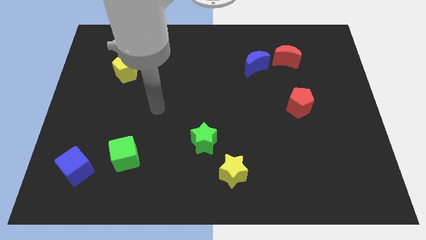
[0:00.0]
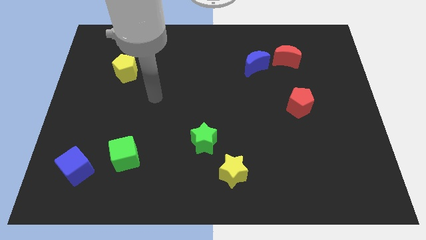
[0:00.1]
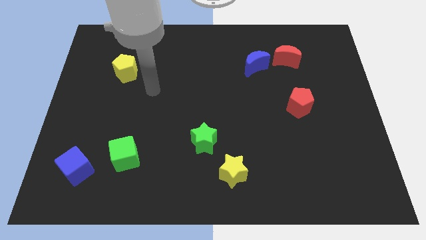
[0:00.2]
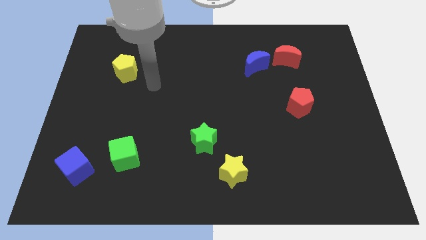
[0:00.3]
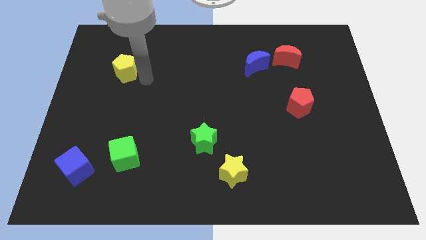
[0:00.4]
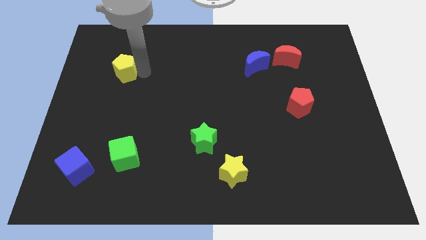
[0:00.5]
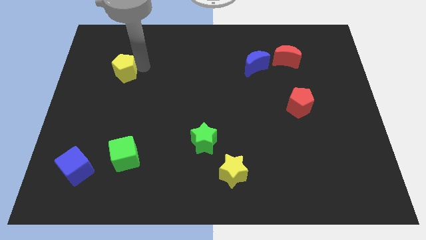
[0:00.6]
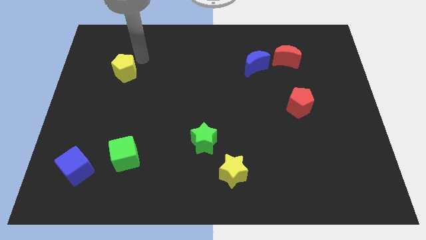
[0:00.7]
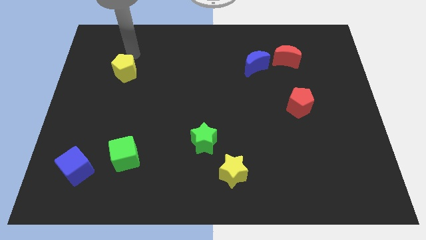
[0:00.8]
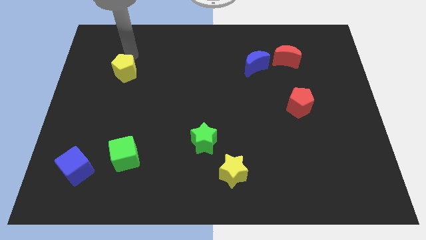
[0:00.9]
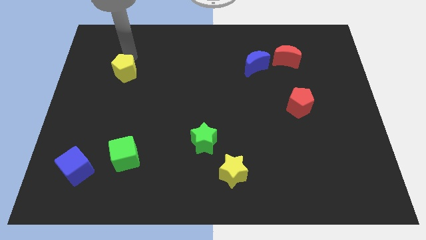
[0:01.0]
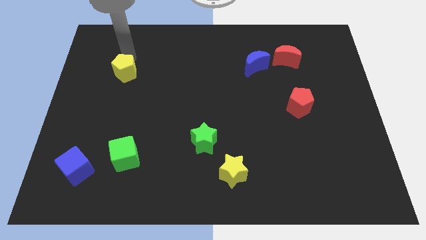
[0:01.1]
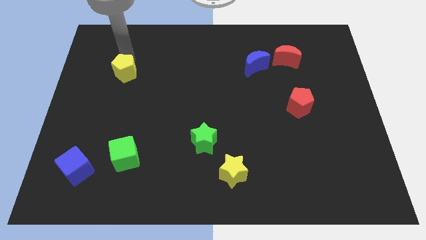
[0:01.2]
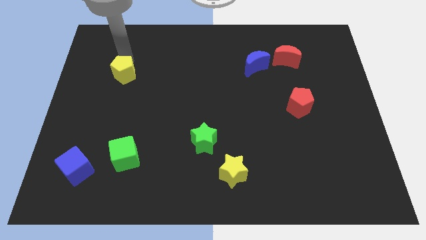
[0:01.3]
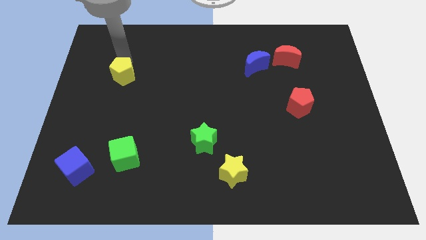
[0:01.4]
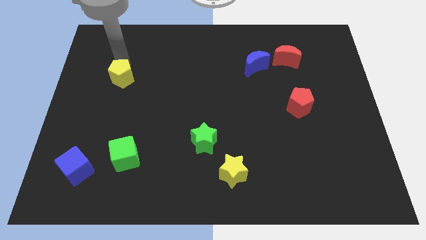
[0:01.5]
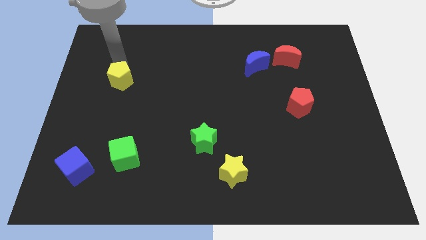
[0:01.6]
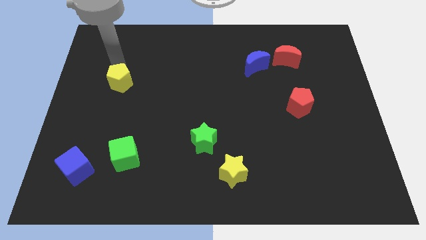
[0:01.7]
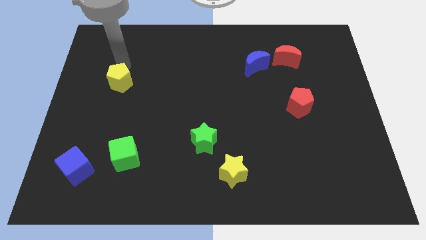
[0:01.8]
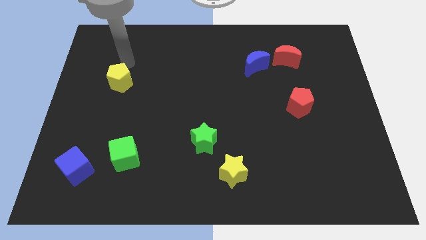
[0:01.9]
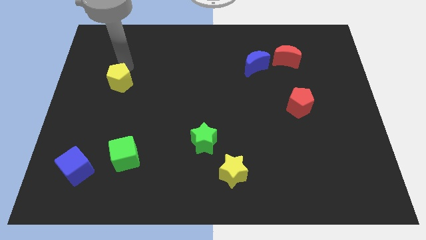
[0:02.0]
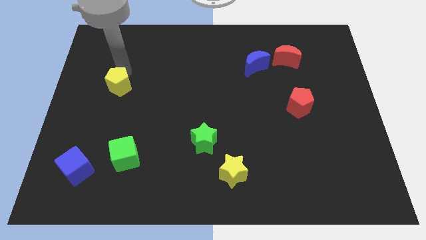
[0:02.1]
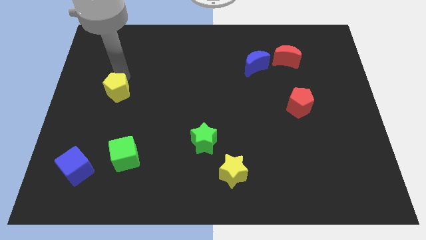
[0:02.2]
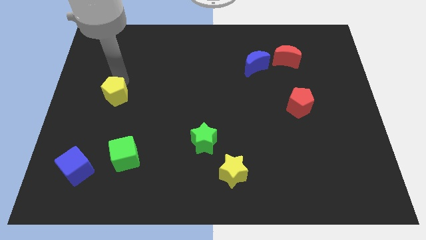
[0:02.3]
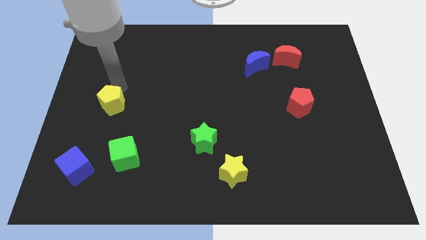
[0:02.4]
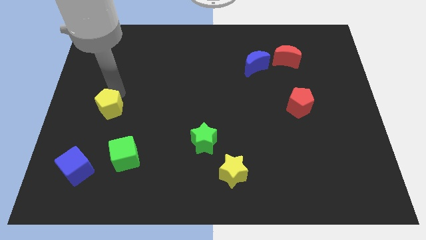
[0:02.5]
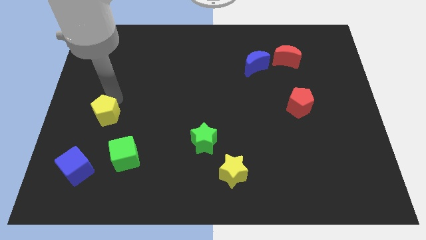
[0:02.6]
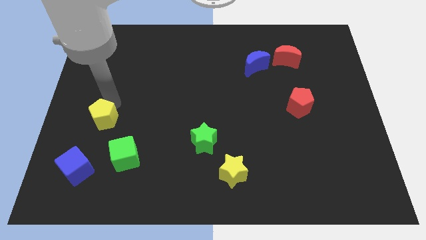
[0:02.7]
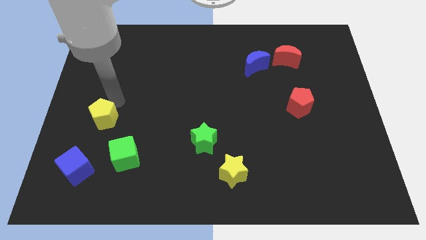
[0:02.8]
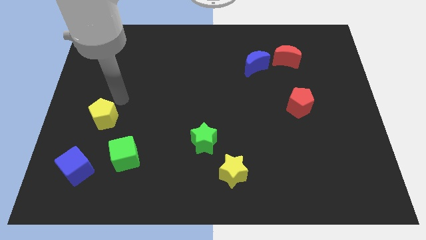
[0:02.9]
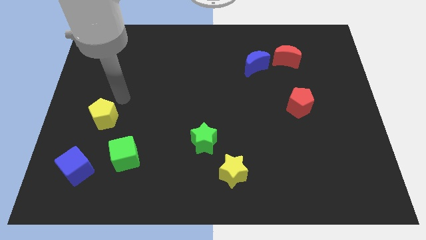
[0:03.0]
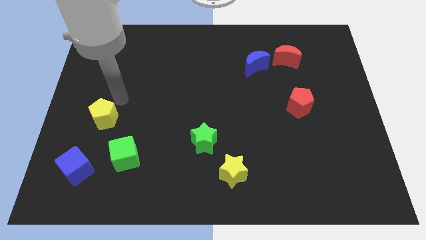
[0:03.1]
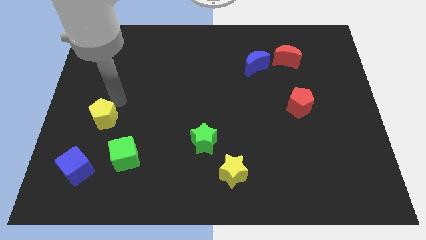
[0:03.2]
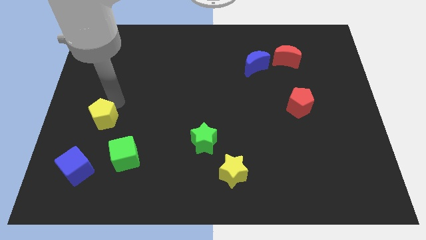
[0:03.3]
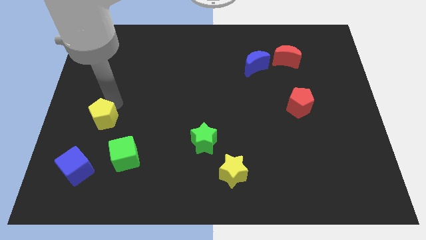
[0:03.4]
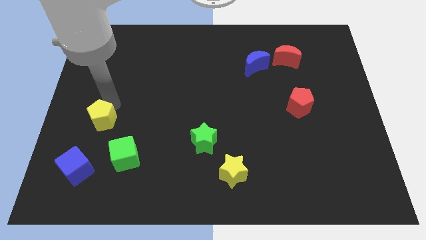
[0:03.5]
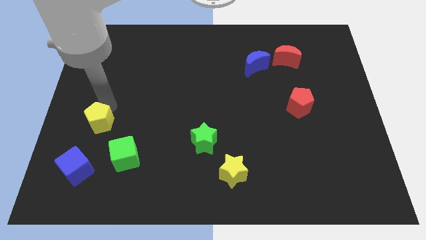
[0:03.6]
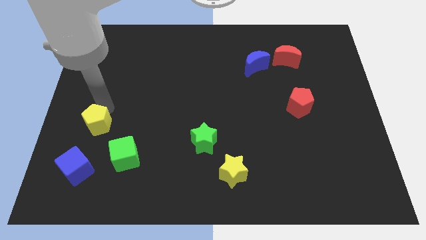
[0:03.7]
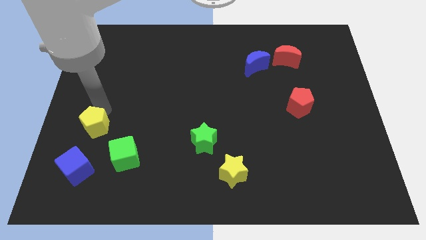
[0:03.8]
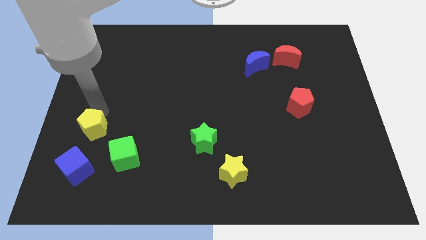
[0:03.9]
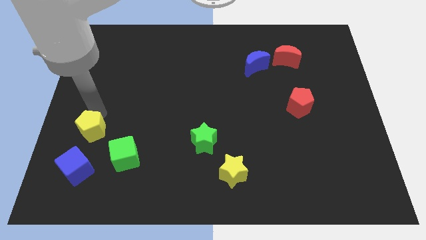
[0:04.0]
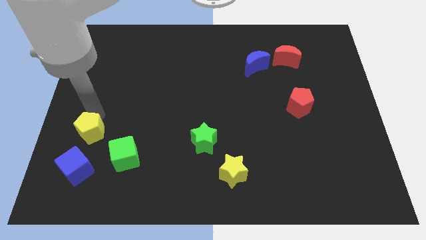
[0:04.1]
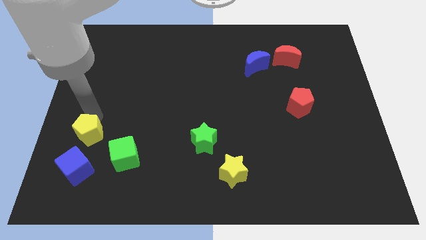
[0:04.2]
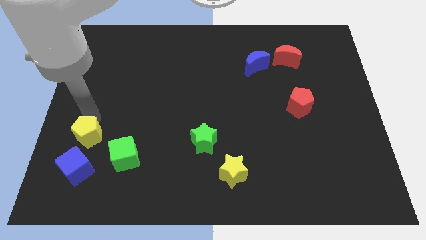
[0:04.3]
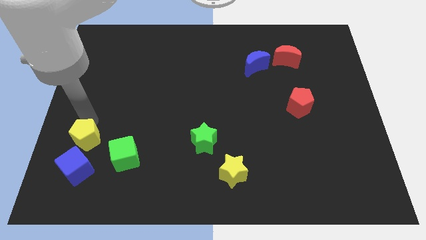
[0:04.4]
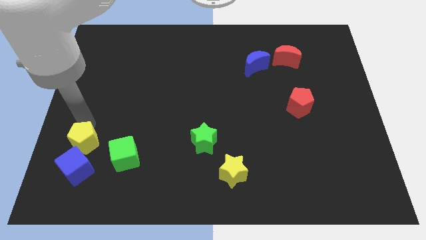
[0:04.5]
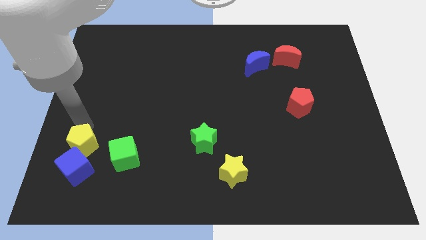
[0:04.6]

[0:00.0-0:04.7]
put the yellow pentagon next to the blue cube

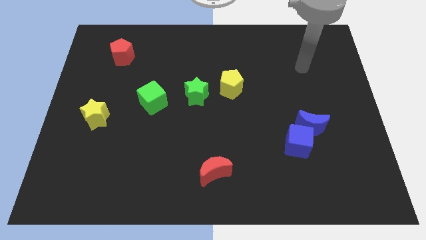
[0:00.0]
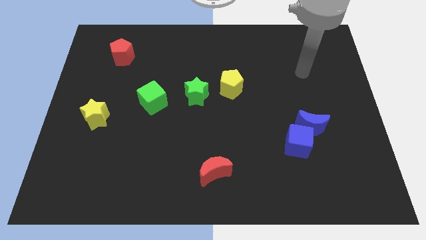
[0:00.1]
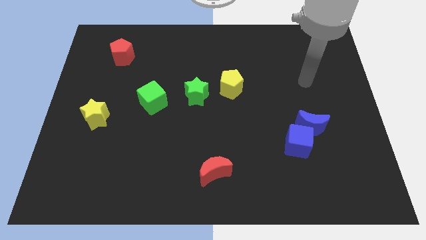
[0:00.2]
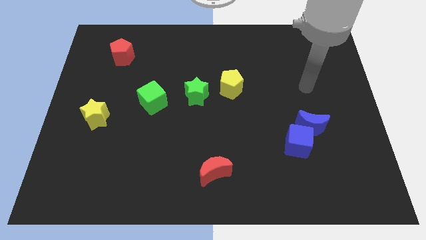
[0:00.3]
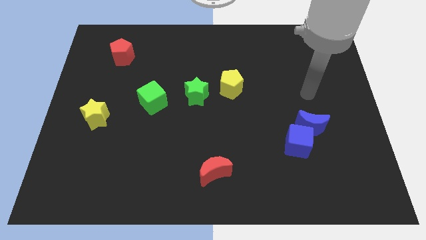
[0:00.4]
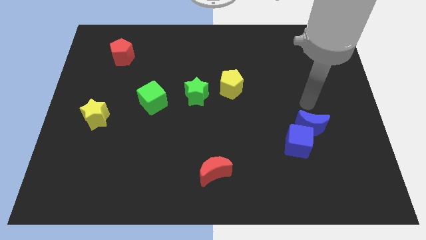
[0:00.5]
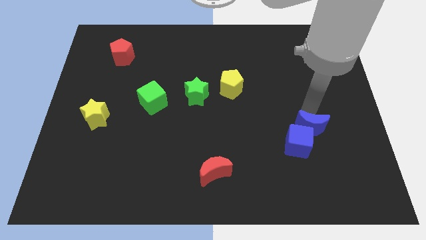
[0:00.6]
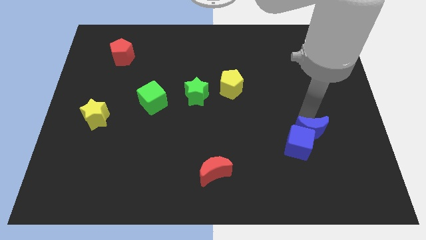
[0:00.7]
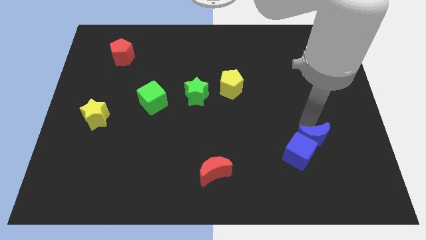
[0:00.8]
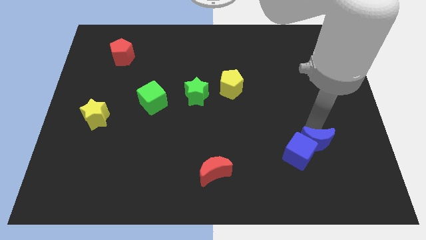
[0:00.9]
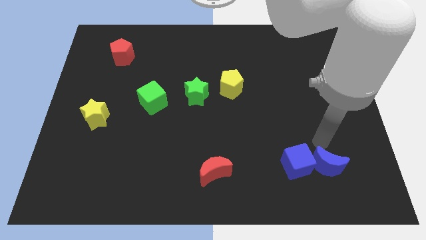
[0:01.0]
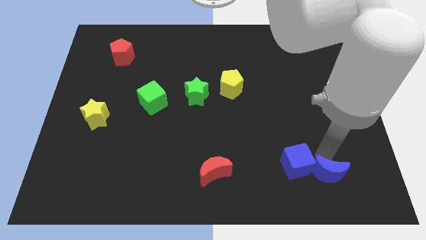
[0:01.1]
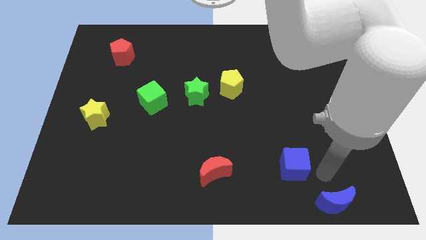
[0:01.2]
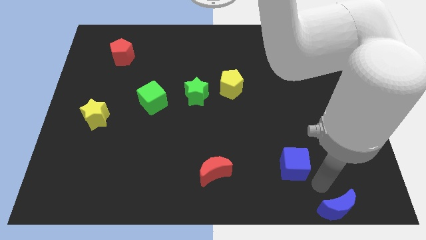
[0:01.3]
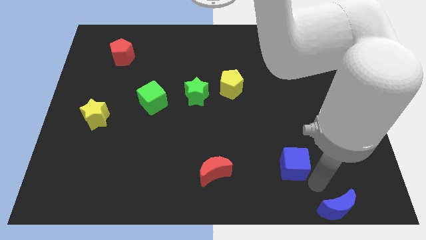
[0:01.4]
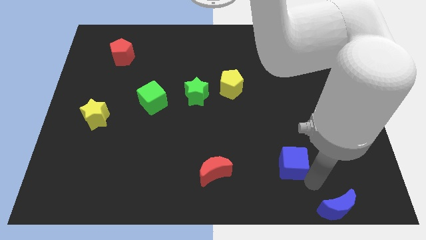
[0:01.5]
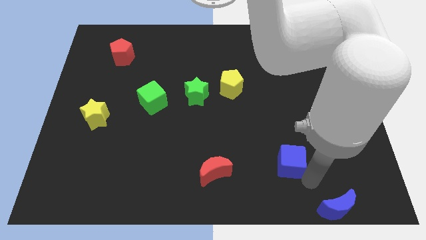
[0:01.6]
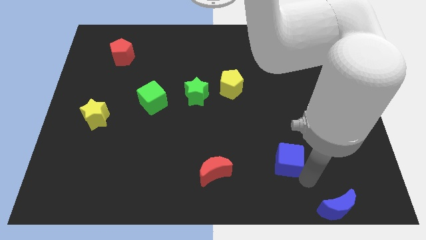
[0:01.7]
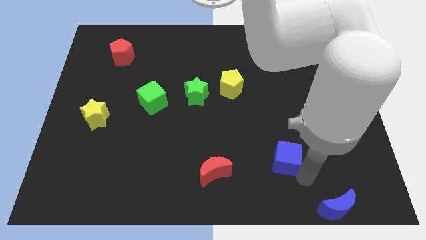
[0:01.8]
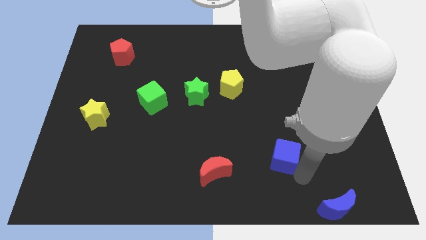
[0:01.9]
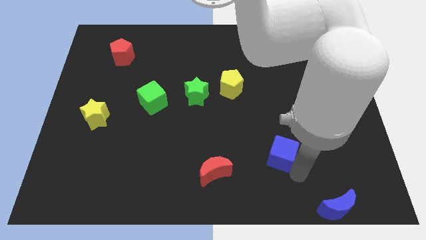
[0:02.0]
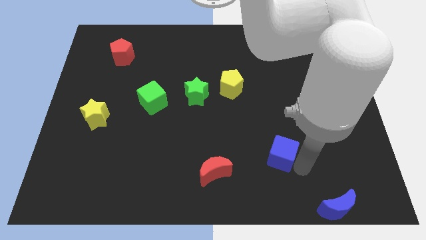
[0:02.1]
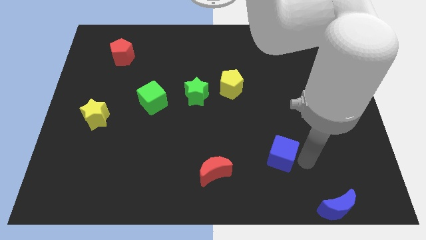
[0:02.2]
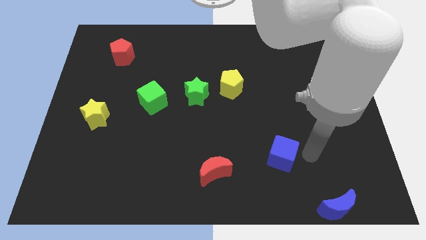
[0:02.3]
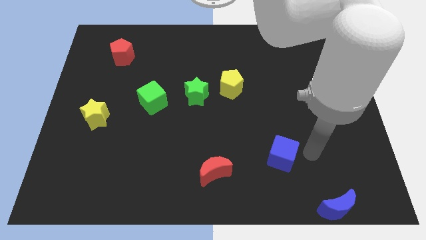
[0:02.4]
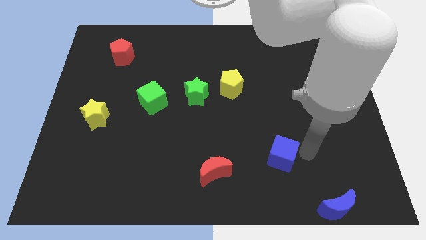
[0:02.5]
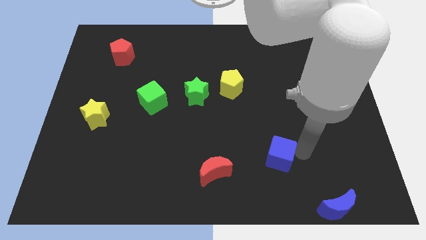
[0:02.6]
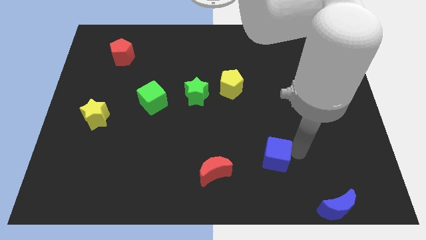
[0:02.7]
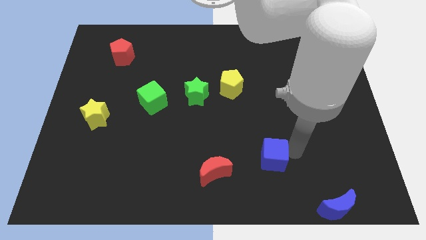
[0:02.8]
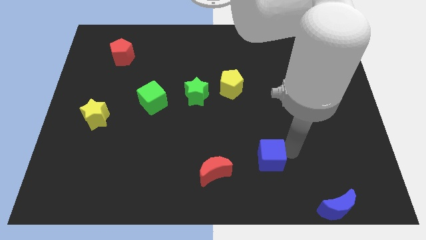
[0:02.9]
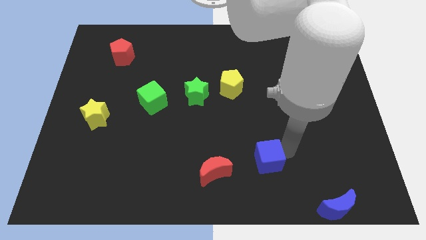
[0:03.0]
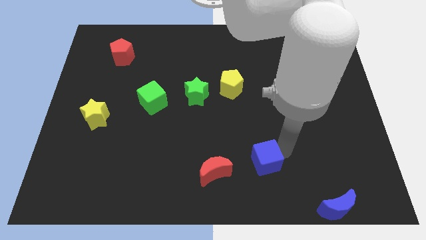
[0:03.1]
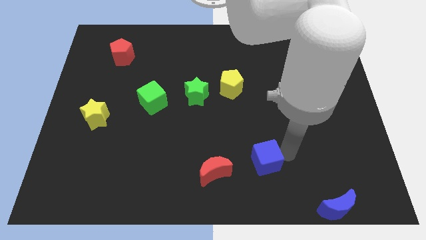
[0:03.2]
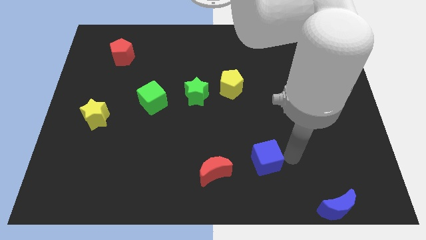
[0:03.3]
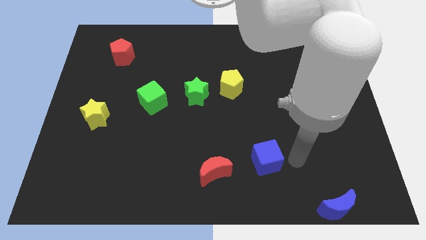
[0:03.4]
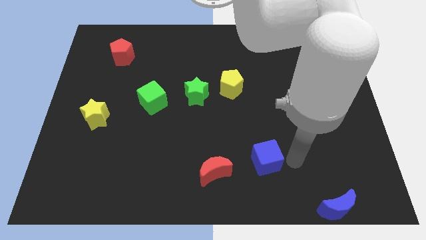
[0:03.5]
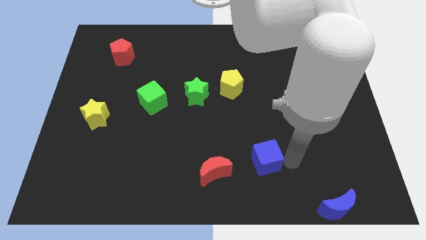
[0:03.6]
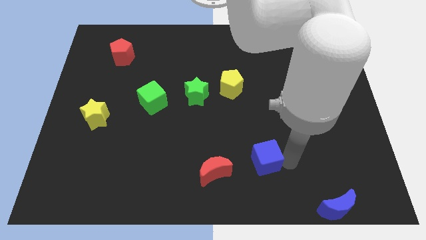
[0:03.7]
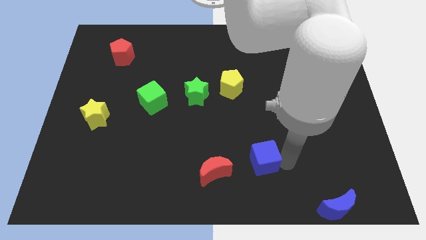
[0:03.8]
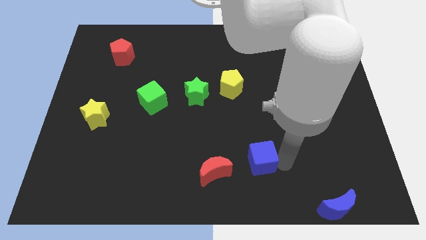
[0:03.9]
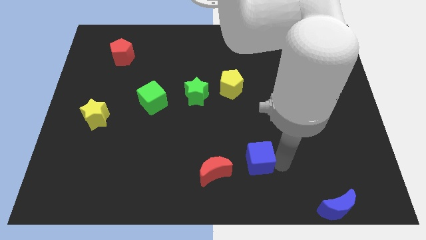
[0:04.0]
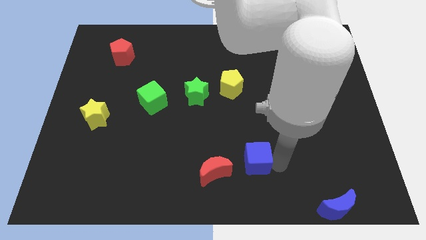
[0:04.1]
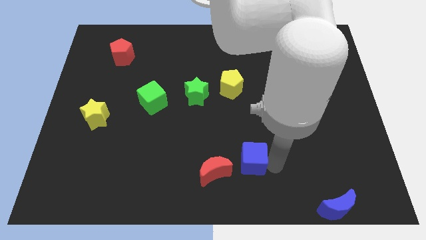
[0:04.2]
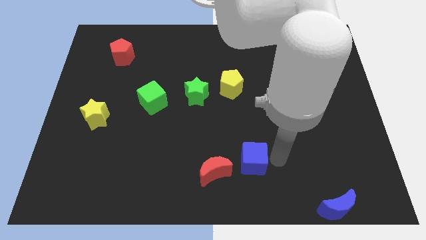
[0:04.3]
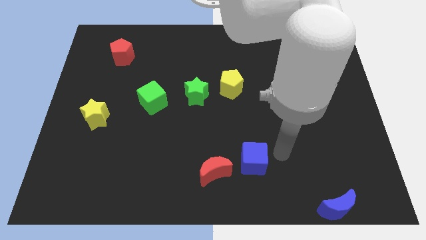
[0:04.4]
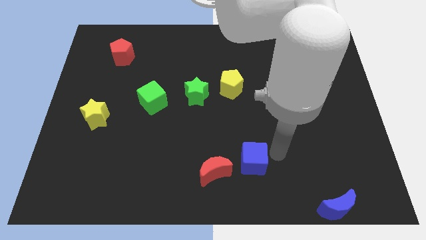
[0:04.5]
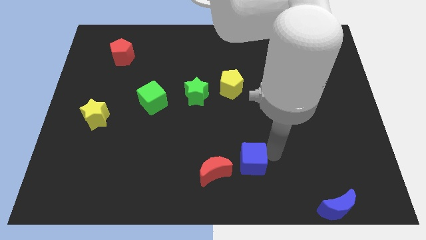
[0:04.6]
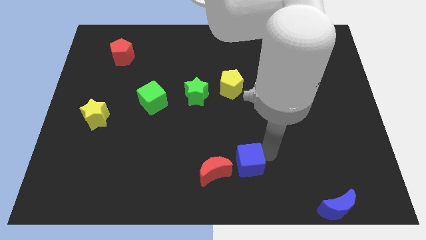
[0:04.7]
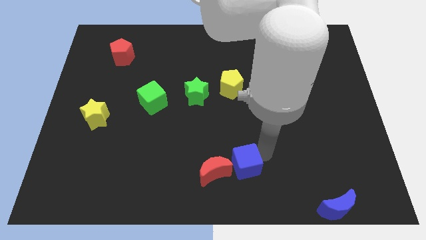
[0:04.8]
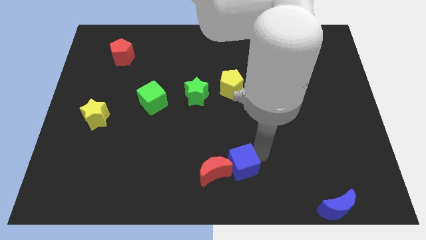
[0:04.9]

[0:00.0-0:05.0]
push the blue cube next to the red moon
